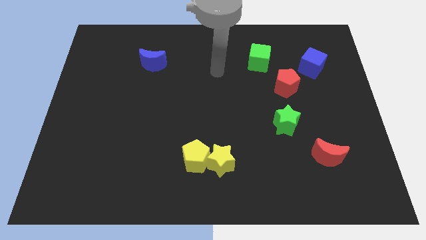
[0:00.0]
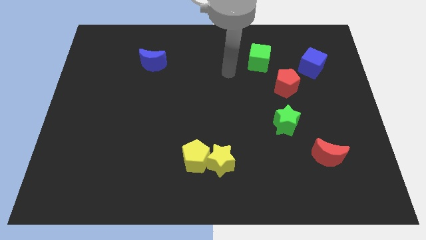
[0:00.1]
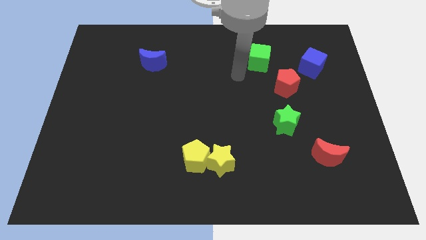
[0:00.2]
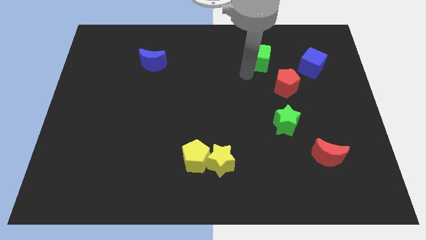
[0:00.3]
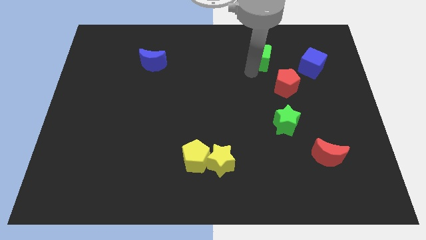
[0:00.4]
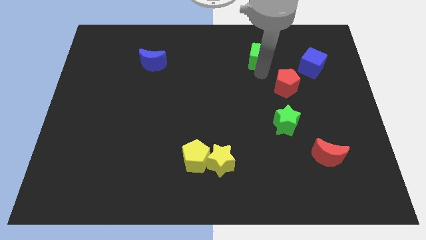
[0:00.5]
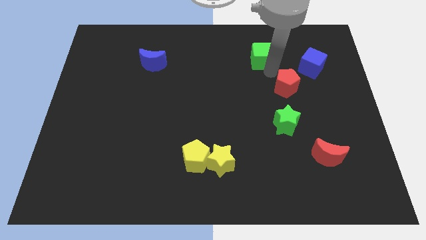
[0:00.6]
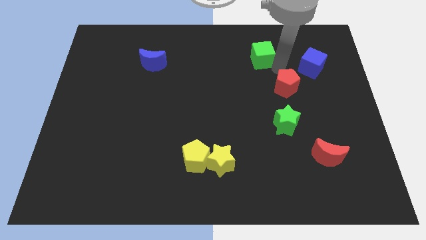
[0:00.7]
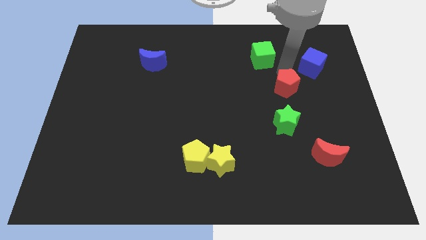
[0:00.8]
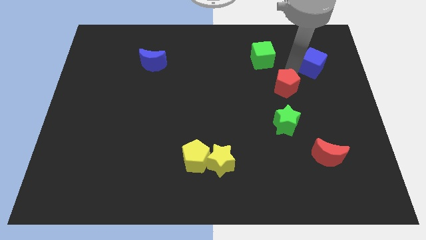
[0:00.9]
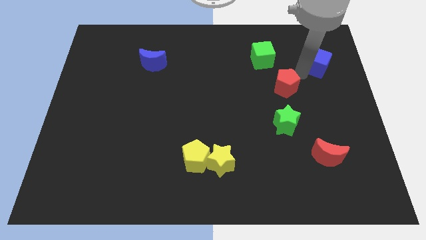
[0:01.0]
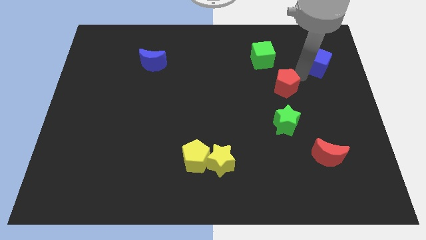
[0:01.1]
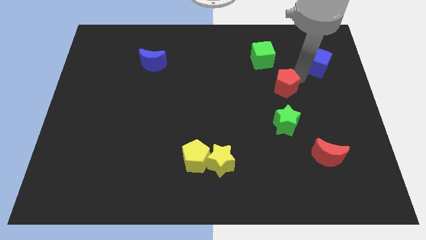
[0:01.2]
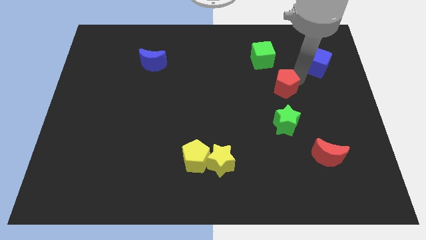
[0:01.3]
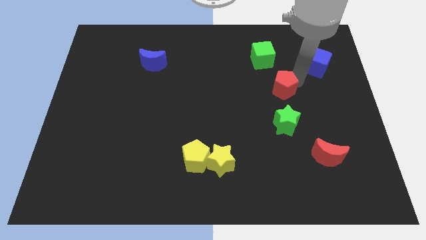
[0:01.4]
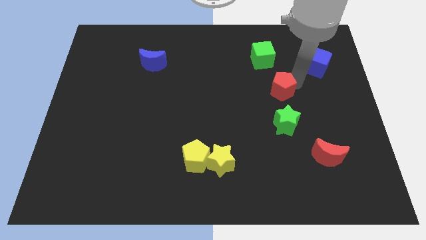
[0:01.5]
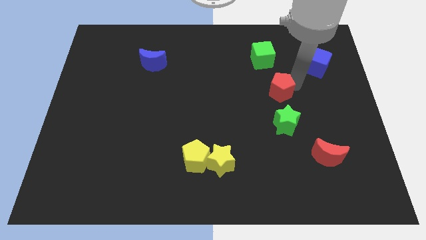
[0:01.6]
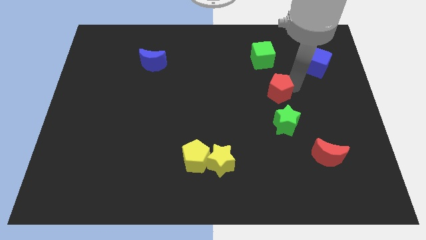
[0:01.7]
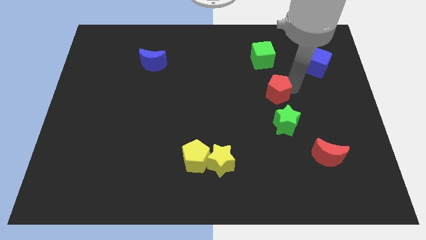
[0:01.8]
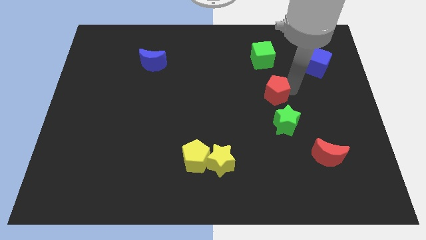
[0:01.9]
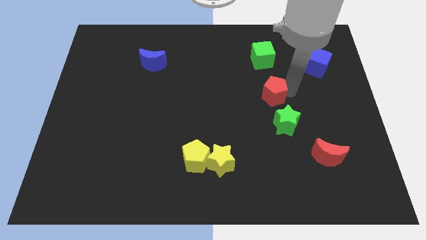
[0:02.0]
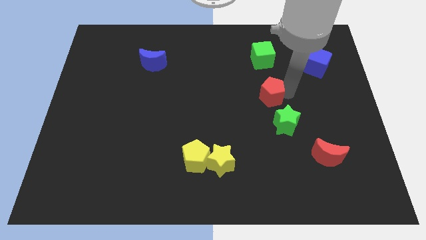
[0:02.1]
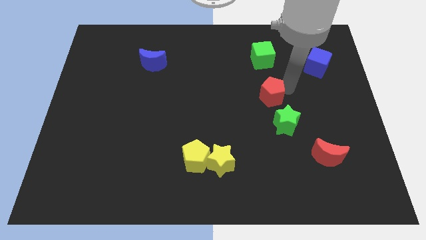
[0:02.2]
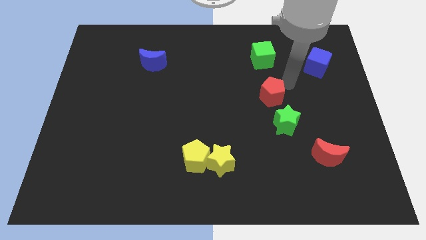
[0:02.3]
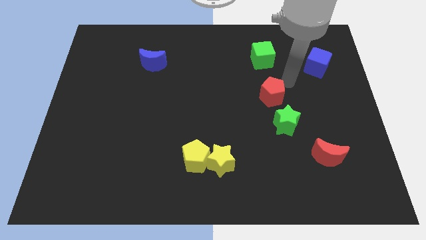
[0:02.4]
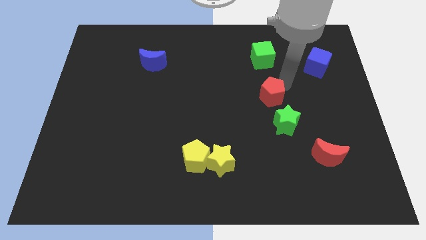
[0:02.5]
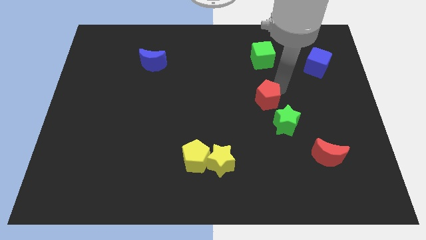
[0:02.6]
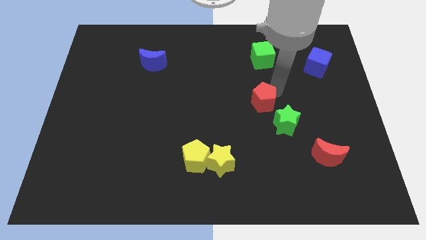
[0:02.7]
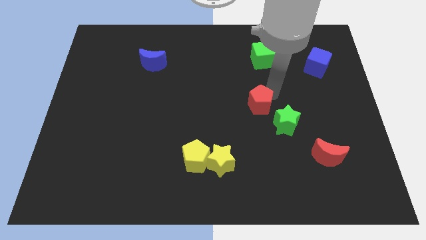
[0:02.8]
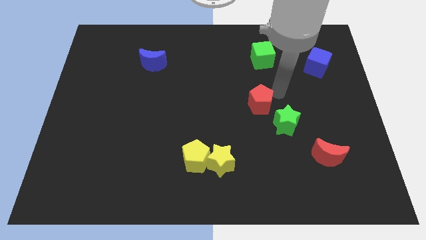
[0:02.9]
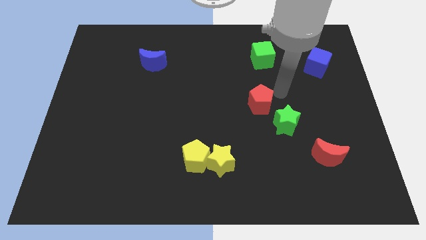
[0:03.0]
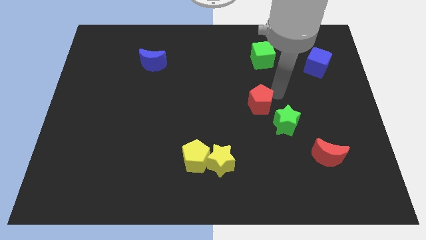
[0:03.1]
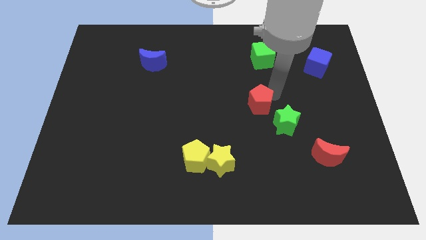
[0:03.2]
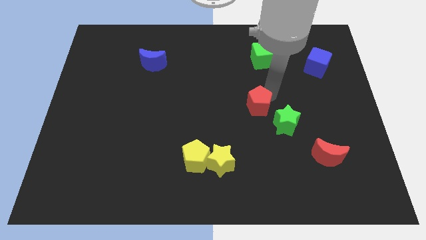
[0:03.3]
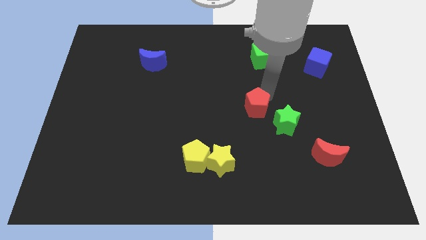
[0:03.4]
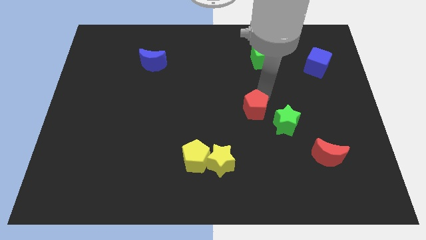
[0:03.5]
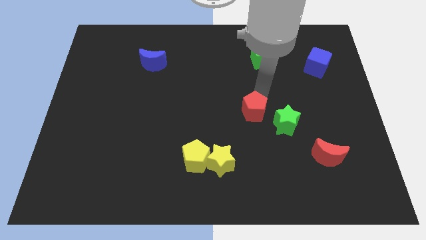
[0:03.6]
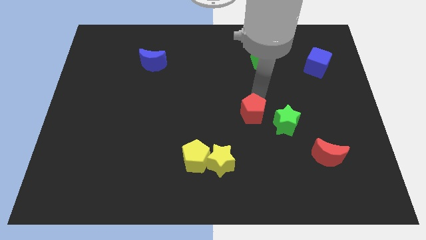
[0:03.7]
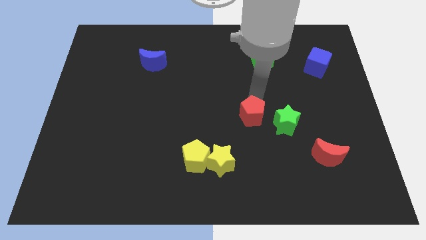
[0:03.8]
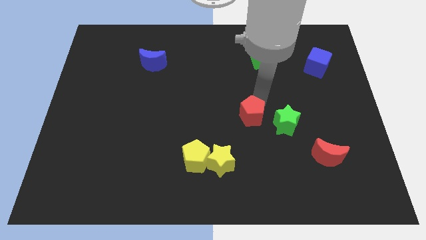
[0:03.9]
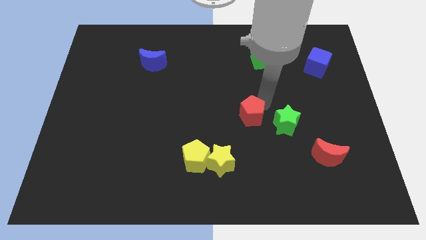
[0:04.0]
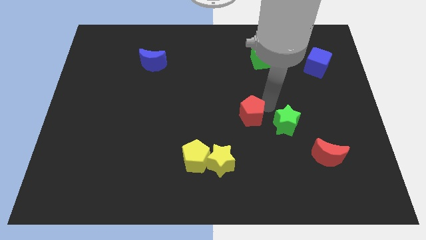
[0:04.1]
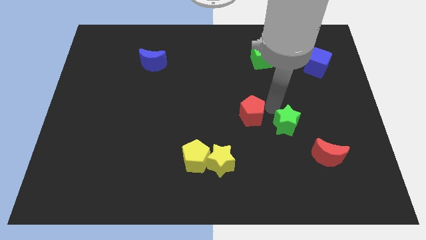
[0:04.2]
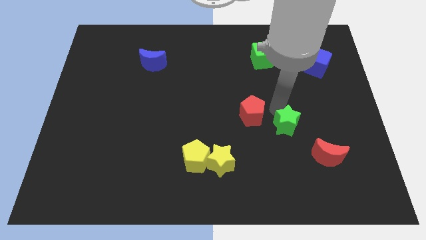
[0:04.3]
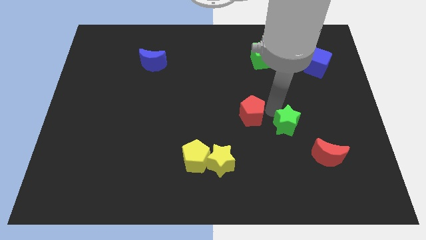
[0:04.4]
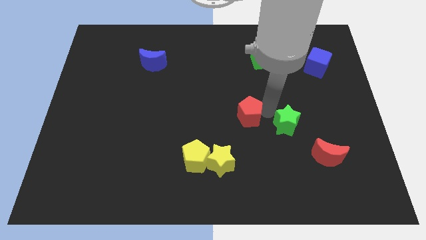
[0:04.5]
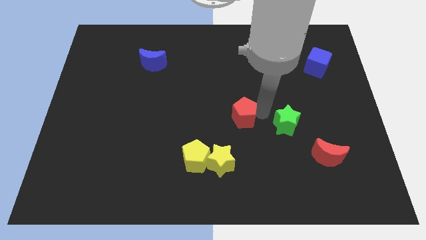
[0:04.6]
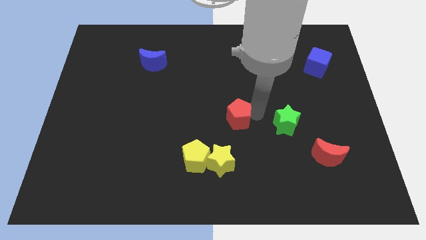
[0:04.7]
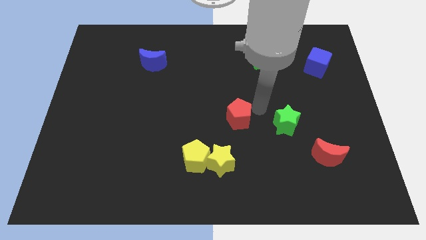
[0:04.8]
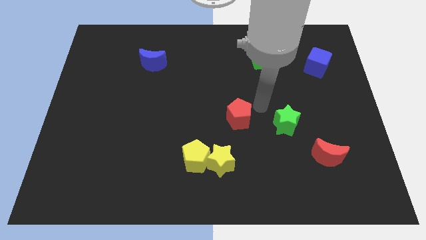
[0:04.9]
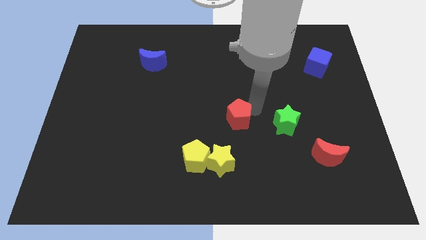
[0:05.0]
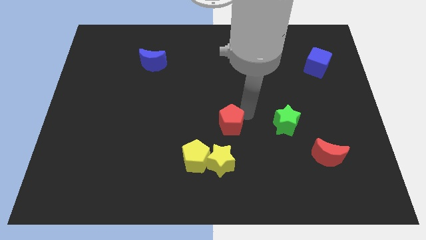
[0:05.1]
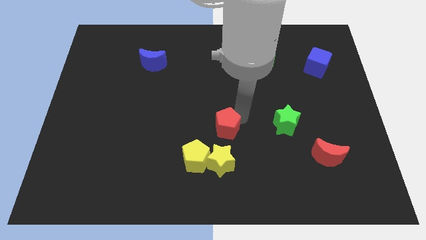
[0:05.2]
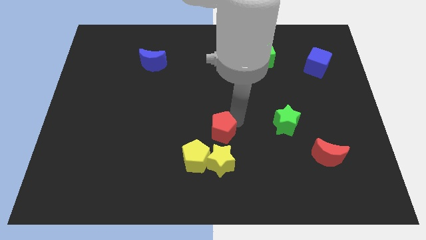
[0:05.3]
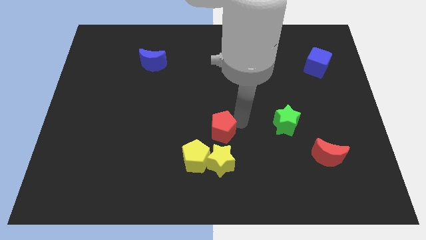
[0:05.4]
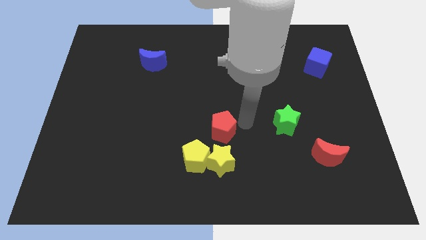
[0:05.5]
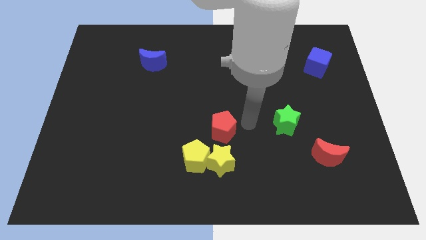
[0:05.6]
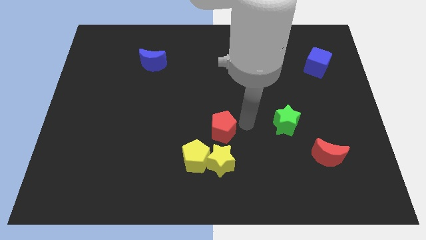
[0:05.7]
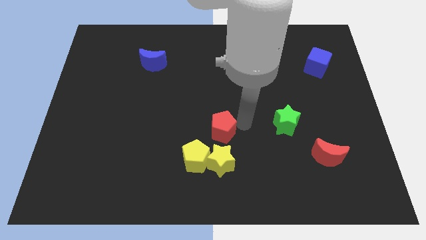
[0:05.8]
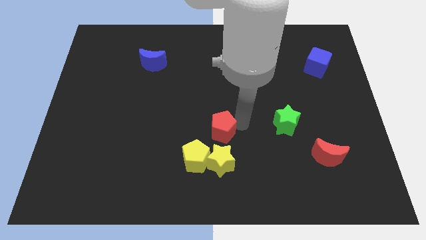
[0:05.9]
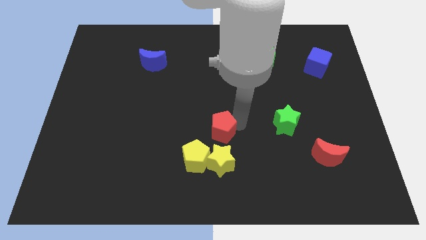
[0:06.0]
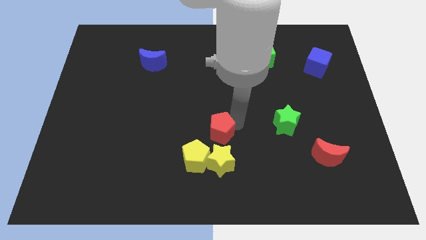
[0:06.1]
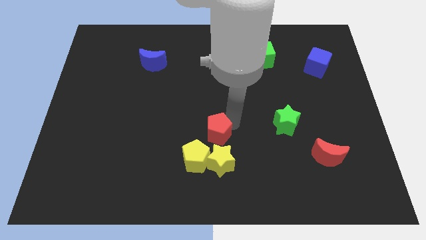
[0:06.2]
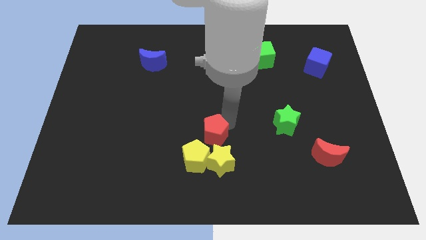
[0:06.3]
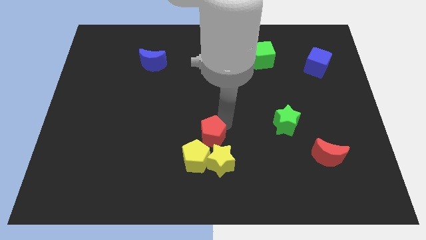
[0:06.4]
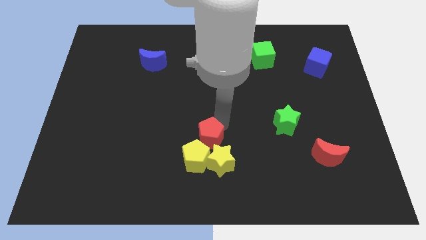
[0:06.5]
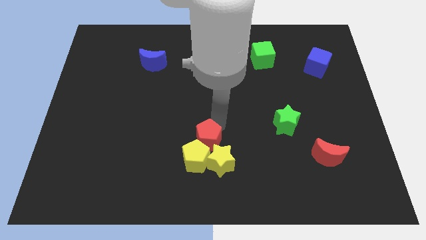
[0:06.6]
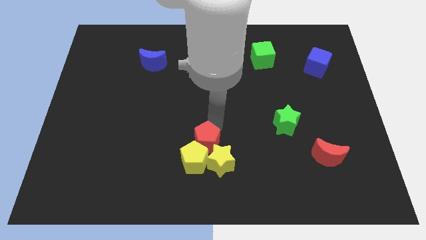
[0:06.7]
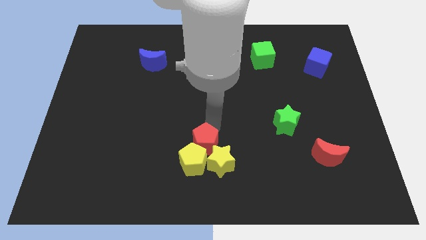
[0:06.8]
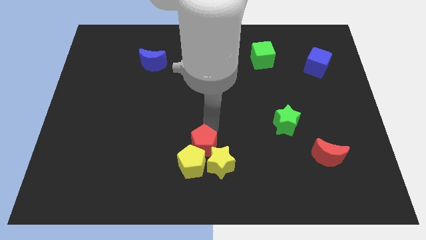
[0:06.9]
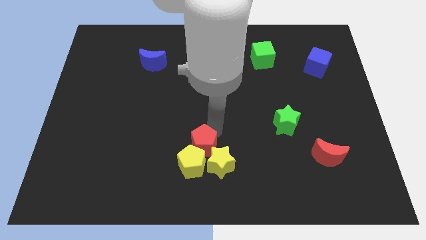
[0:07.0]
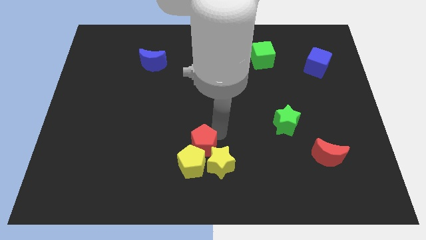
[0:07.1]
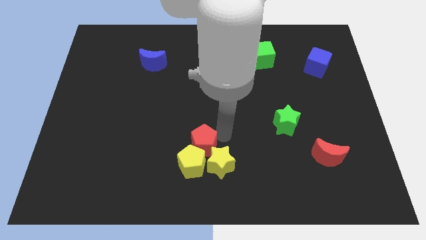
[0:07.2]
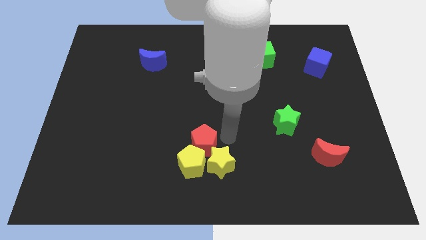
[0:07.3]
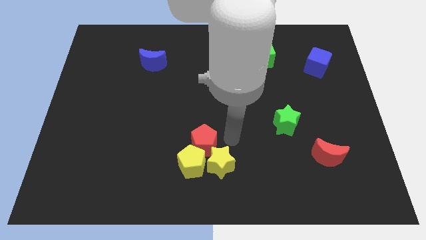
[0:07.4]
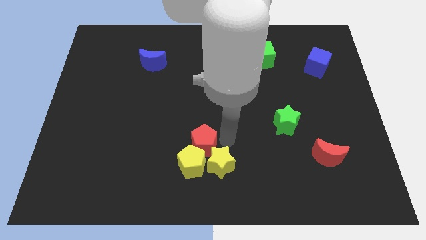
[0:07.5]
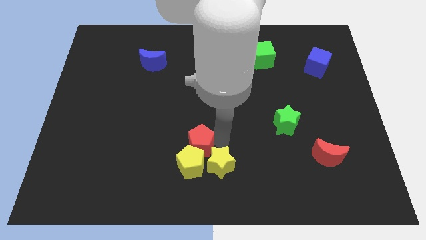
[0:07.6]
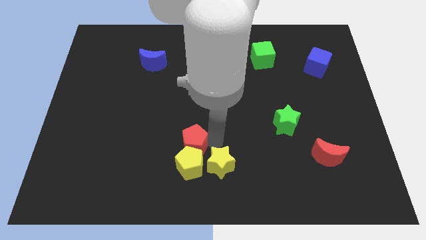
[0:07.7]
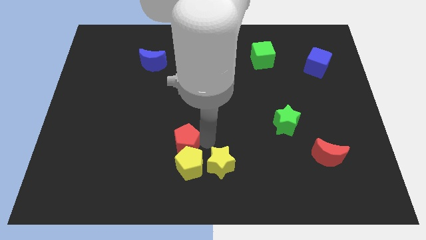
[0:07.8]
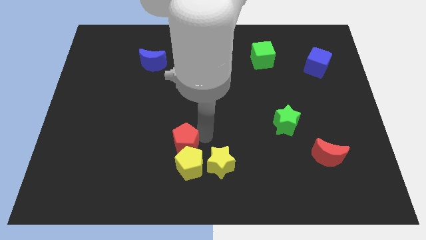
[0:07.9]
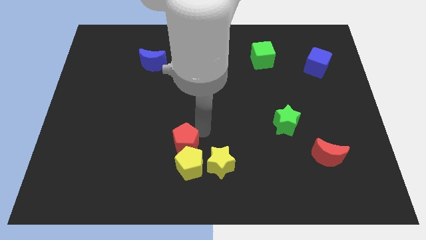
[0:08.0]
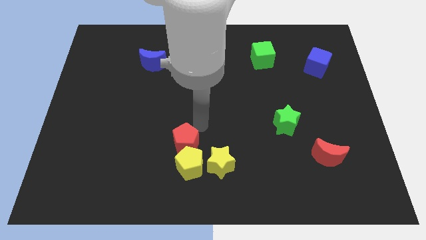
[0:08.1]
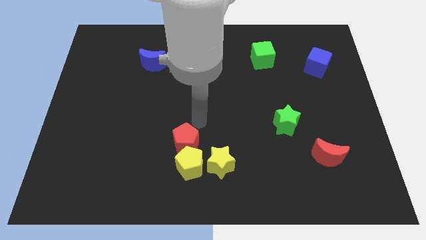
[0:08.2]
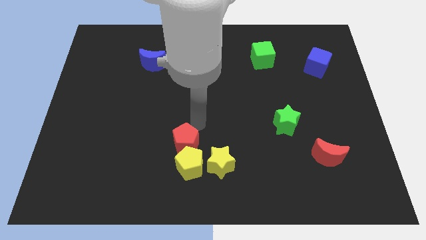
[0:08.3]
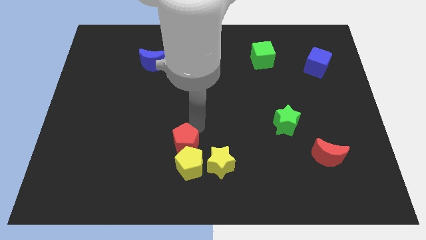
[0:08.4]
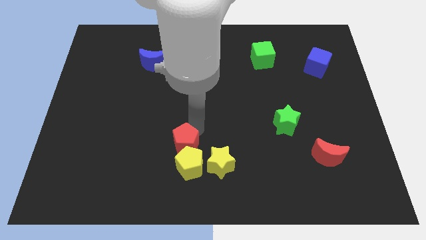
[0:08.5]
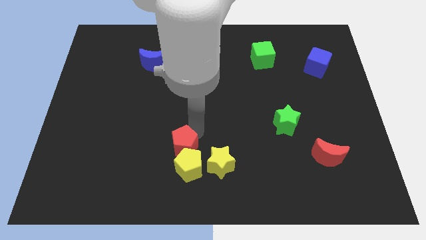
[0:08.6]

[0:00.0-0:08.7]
put the red pentagon to the left of the yellow star
